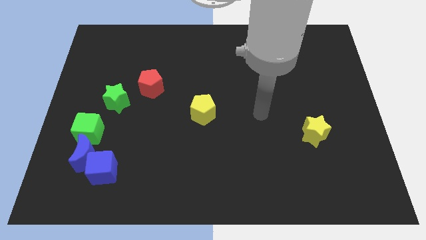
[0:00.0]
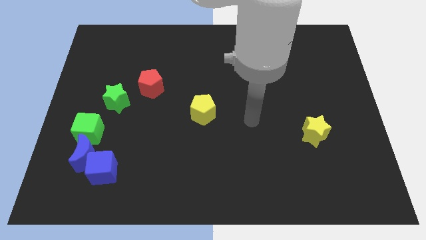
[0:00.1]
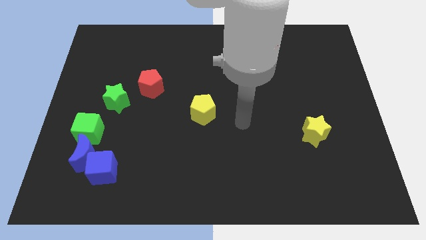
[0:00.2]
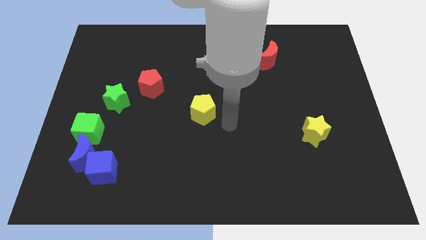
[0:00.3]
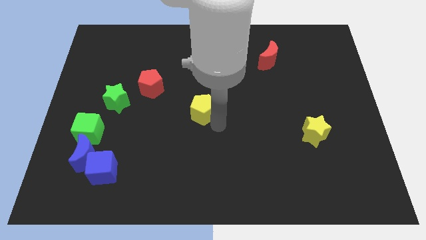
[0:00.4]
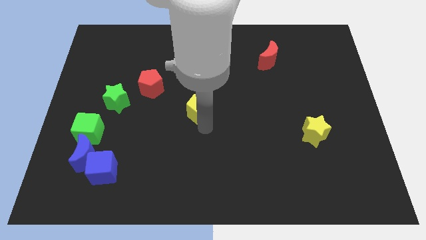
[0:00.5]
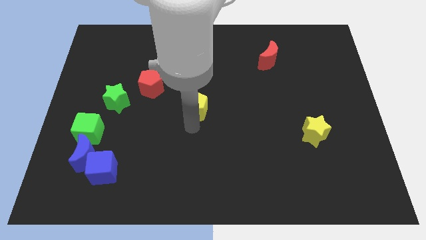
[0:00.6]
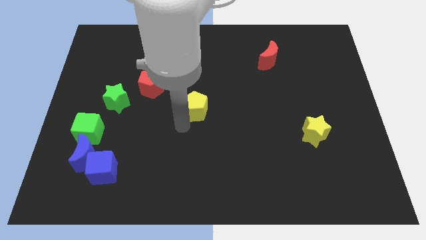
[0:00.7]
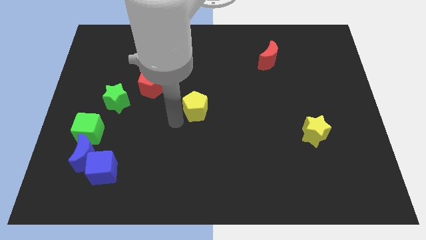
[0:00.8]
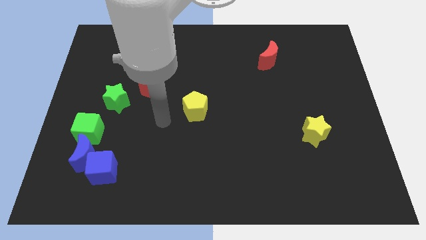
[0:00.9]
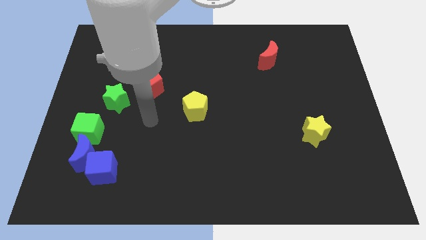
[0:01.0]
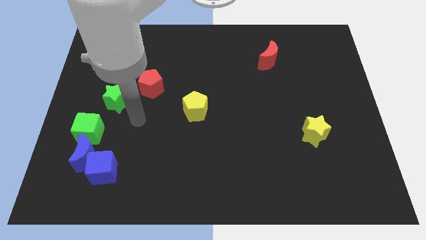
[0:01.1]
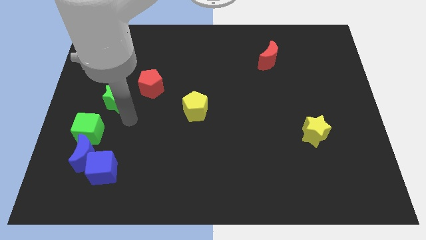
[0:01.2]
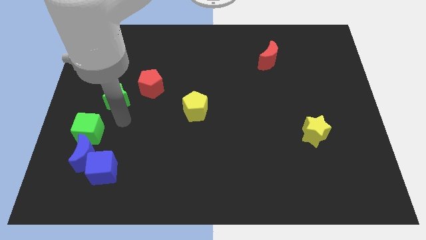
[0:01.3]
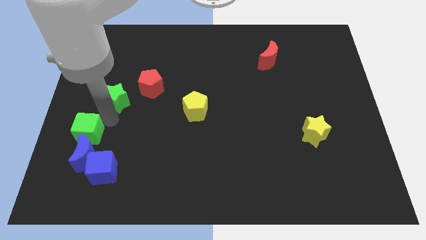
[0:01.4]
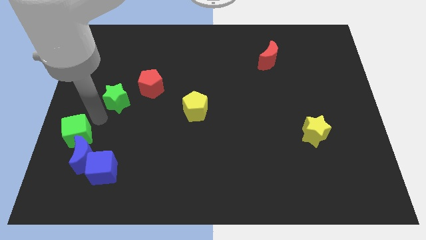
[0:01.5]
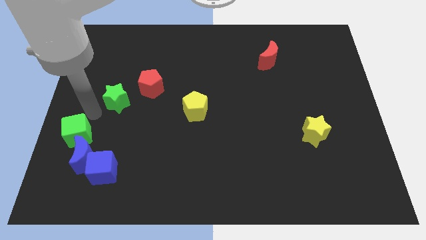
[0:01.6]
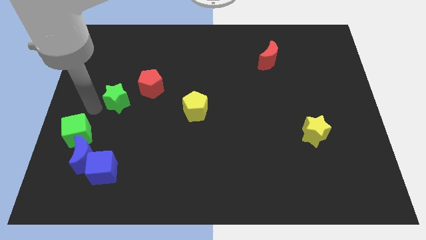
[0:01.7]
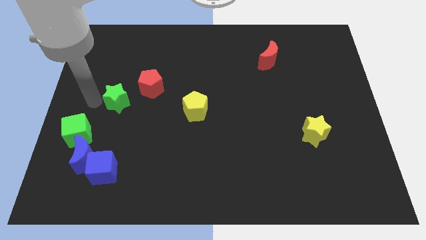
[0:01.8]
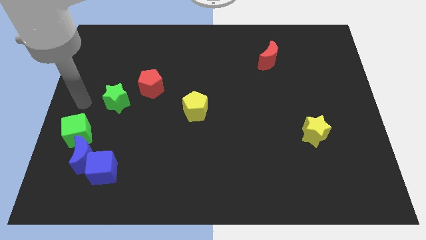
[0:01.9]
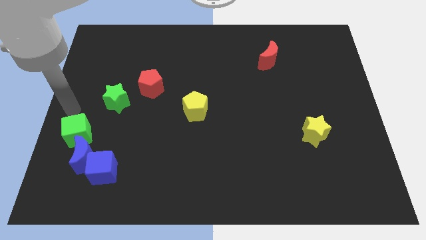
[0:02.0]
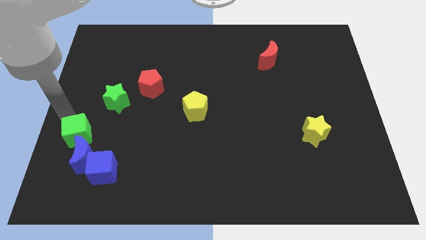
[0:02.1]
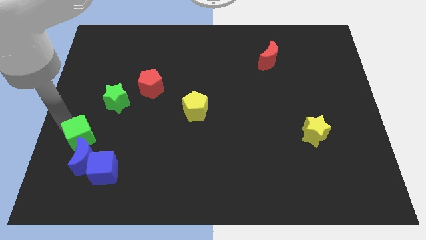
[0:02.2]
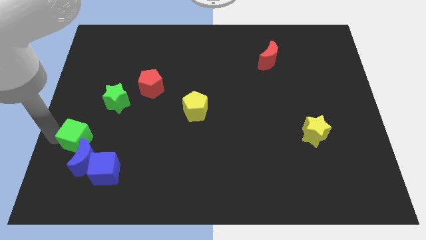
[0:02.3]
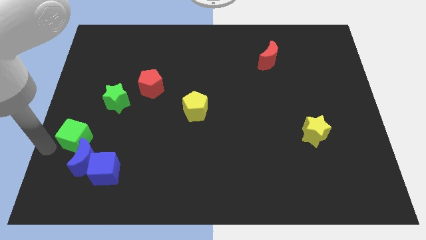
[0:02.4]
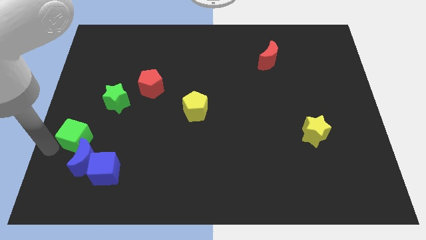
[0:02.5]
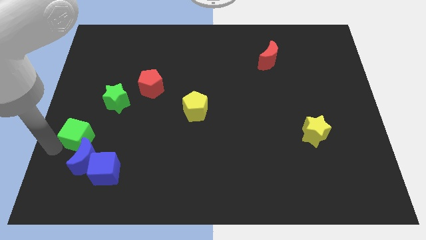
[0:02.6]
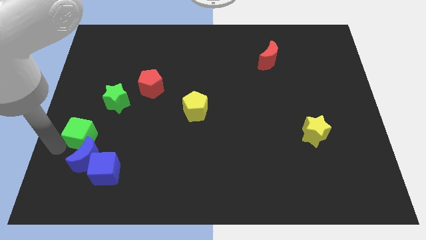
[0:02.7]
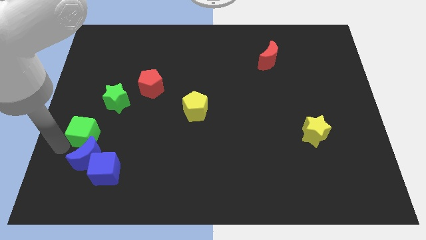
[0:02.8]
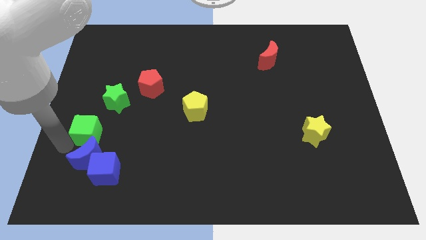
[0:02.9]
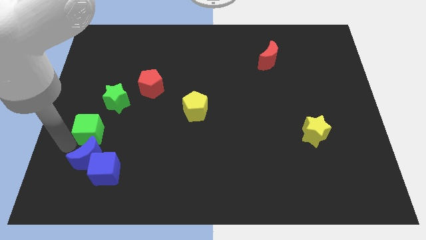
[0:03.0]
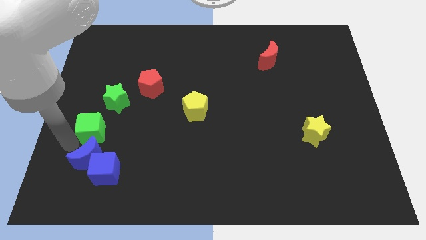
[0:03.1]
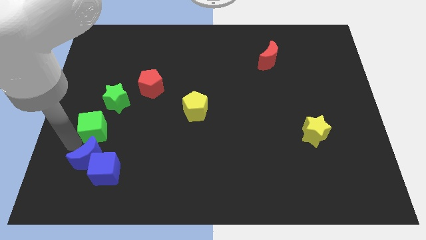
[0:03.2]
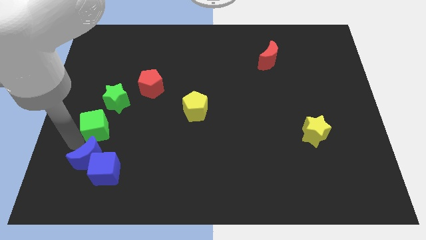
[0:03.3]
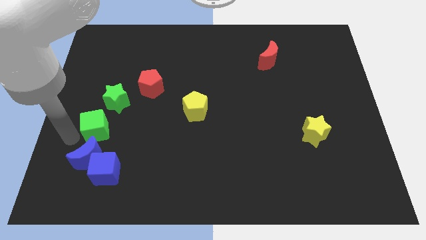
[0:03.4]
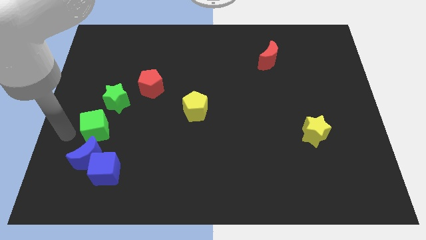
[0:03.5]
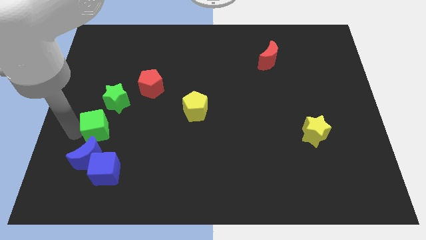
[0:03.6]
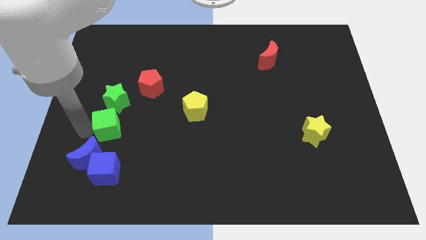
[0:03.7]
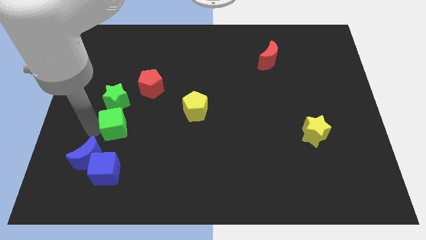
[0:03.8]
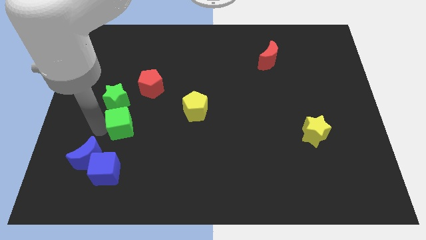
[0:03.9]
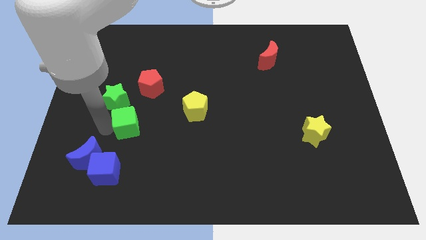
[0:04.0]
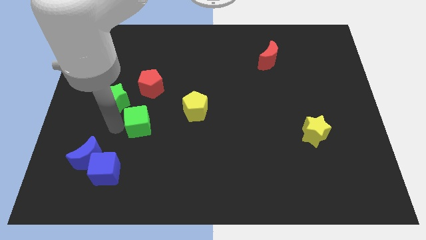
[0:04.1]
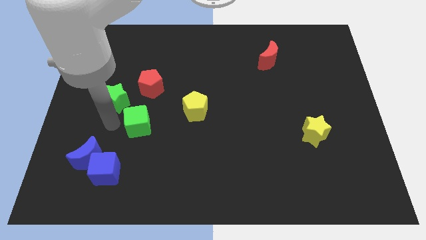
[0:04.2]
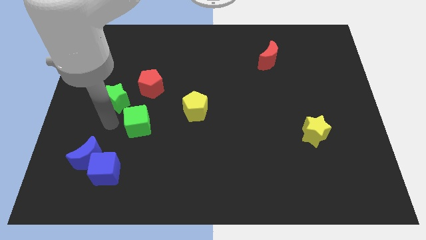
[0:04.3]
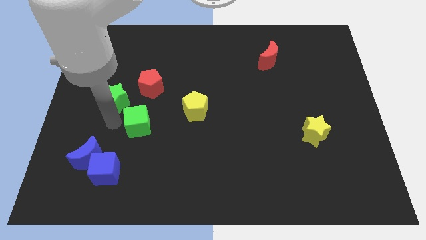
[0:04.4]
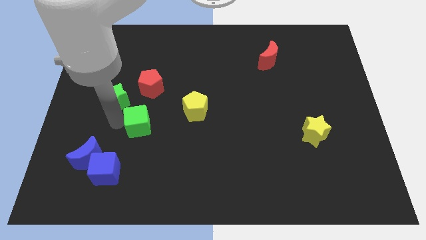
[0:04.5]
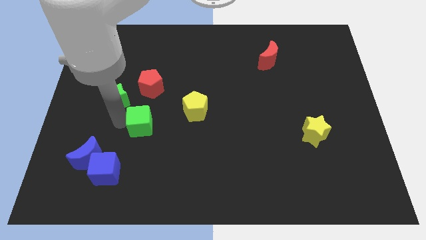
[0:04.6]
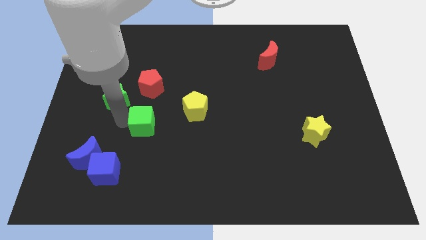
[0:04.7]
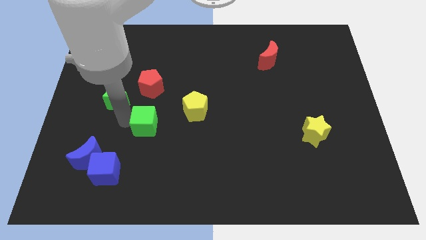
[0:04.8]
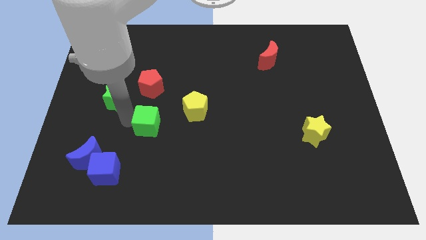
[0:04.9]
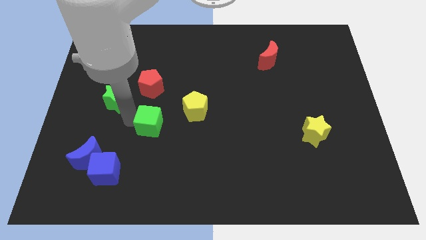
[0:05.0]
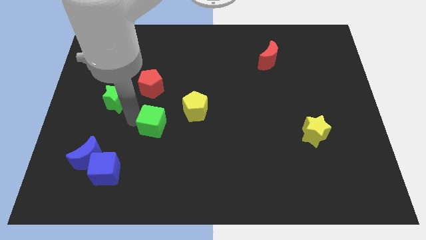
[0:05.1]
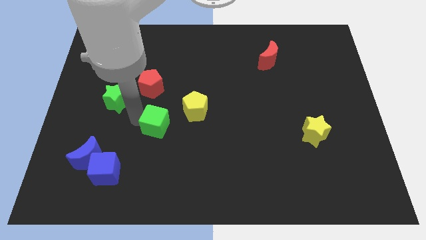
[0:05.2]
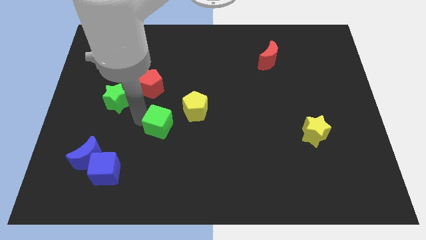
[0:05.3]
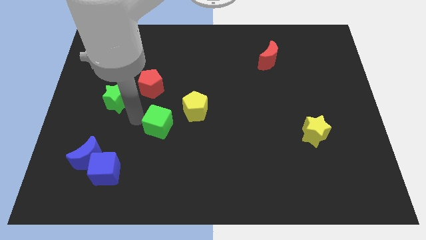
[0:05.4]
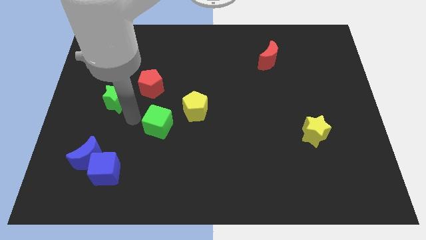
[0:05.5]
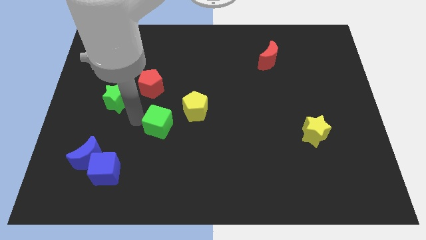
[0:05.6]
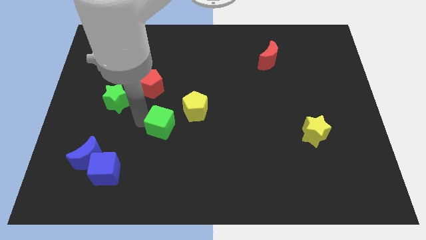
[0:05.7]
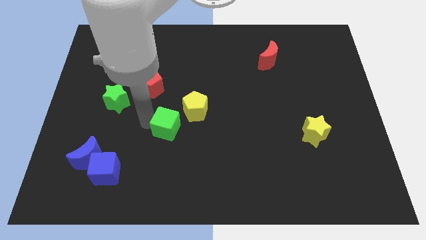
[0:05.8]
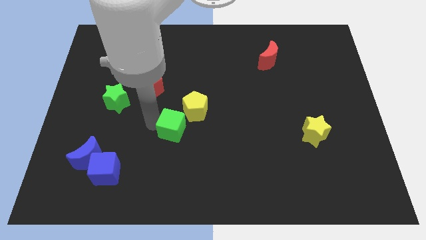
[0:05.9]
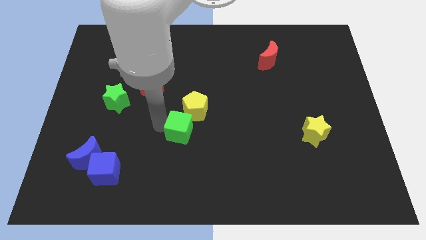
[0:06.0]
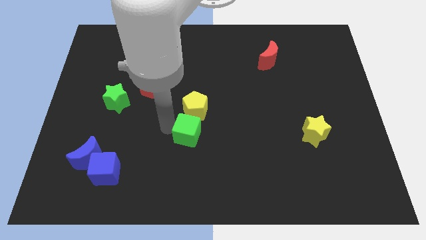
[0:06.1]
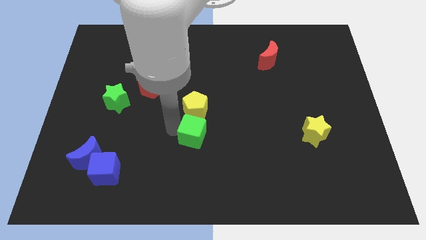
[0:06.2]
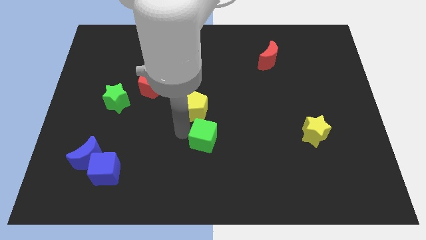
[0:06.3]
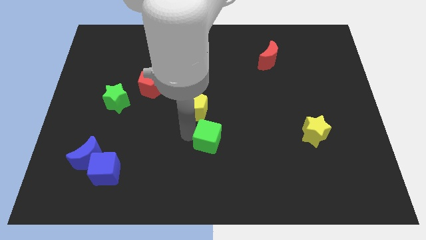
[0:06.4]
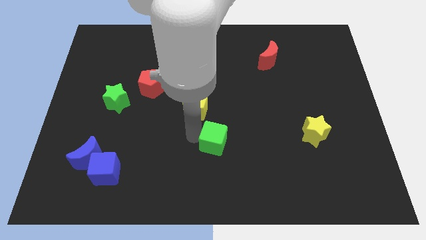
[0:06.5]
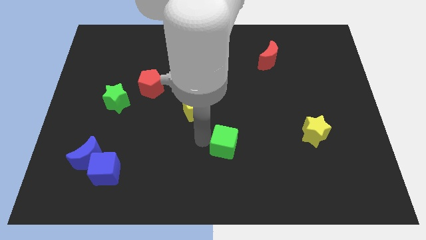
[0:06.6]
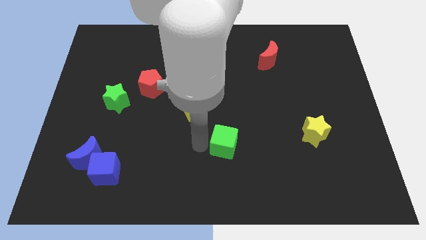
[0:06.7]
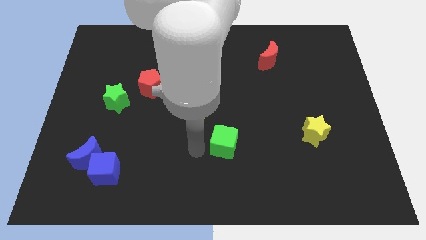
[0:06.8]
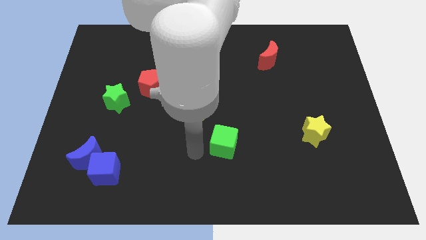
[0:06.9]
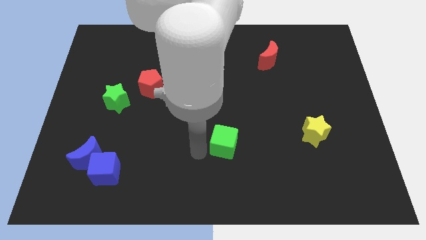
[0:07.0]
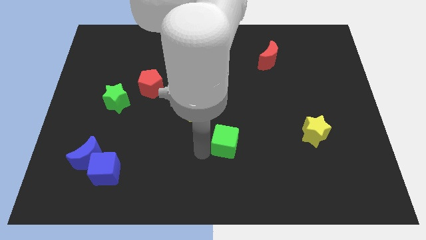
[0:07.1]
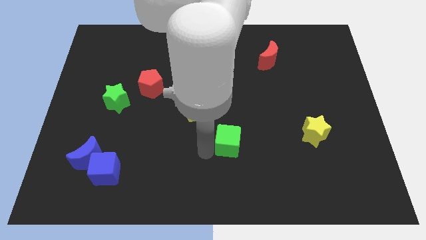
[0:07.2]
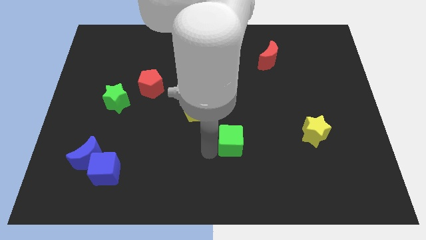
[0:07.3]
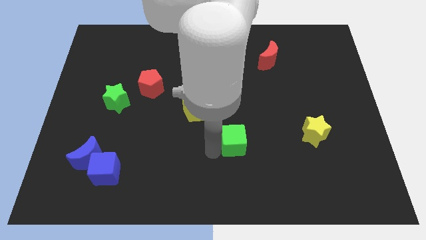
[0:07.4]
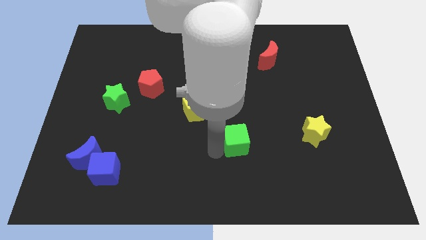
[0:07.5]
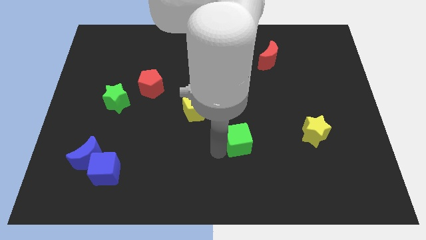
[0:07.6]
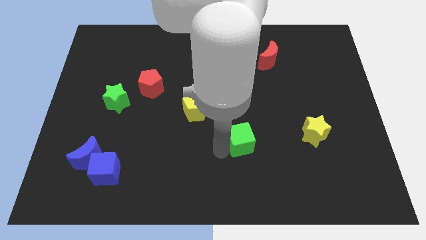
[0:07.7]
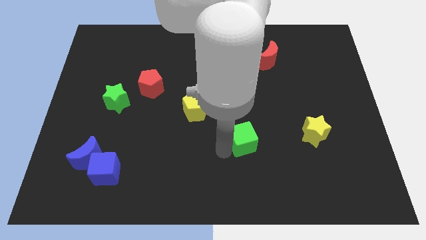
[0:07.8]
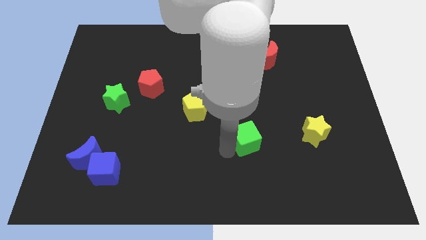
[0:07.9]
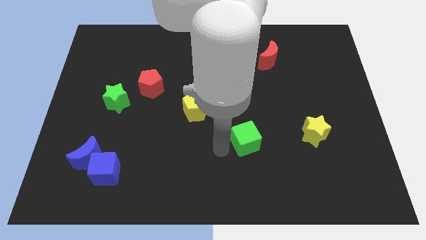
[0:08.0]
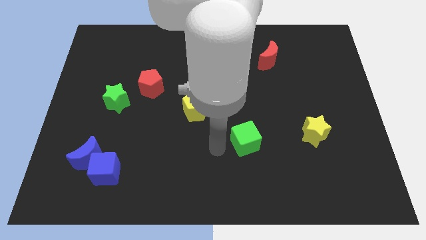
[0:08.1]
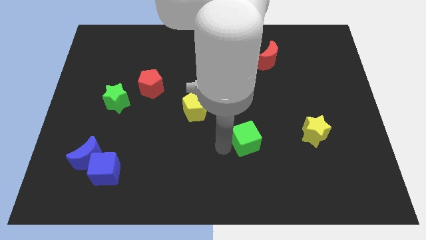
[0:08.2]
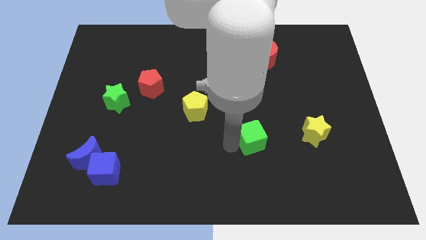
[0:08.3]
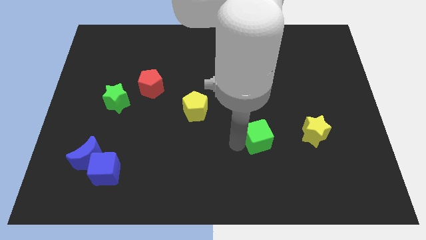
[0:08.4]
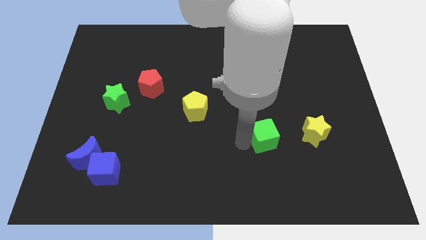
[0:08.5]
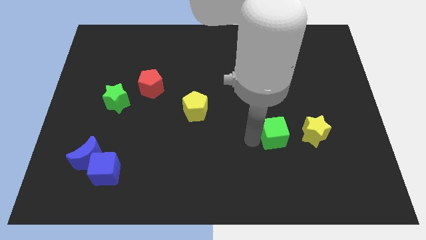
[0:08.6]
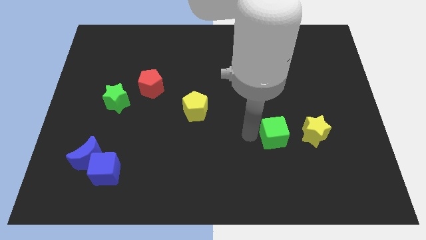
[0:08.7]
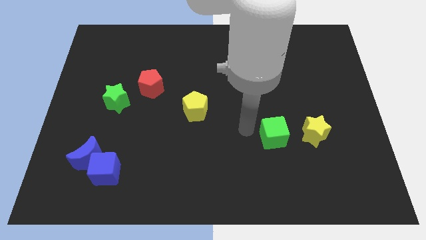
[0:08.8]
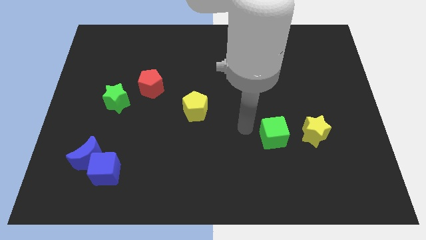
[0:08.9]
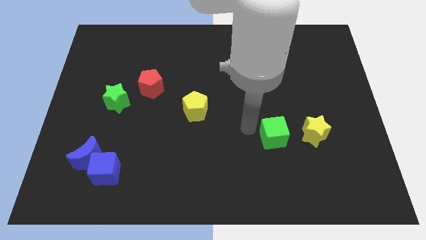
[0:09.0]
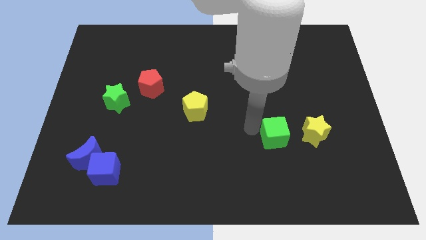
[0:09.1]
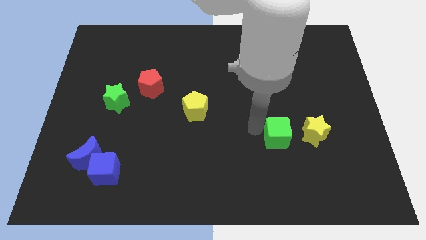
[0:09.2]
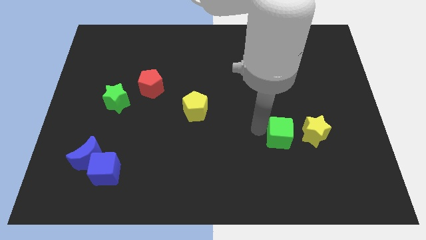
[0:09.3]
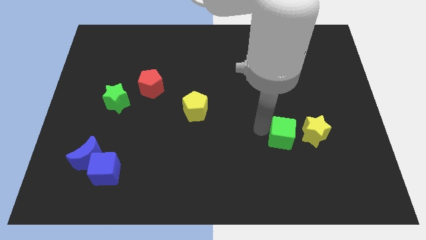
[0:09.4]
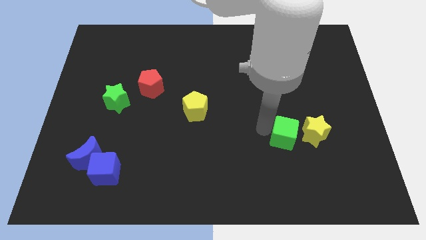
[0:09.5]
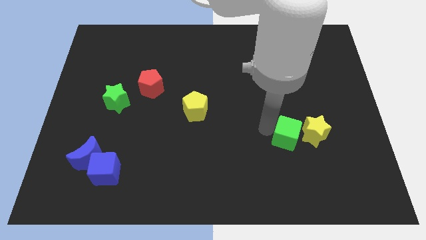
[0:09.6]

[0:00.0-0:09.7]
slide the green cube next to the yellow star
